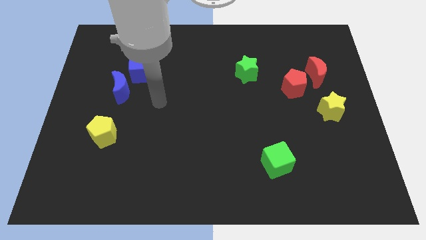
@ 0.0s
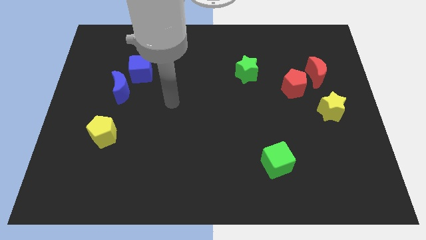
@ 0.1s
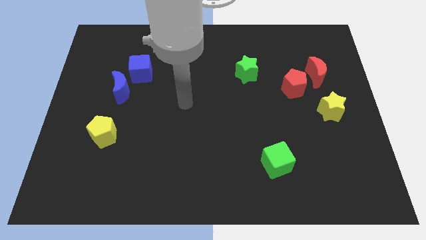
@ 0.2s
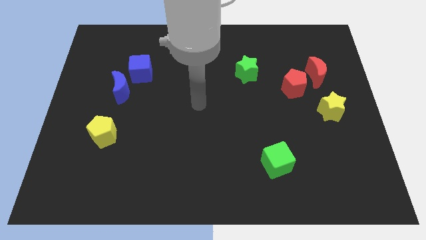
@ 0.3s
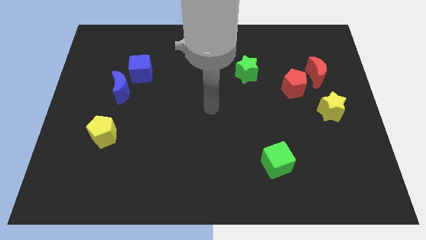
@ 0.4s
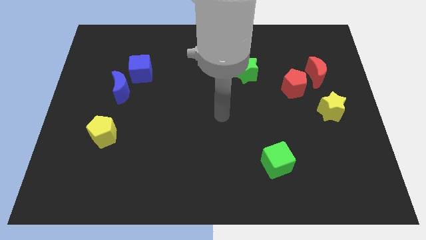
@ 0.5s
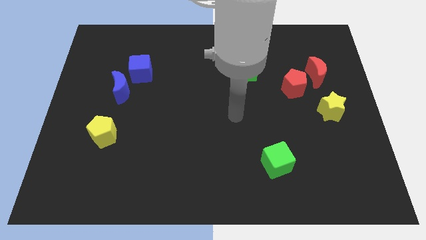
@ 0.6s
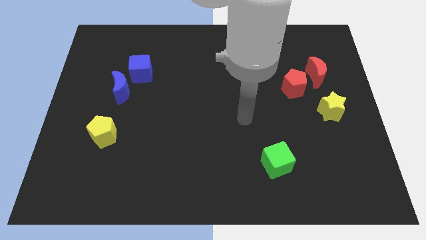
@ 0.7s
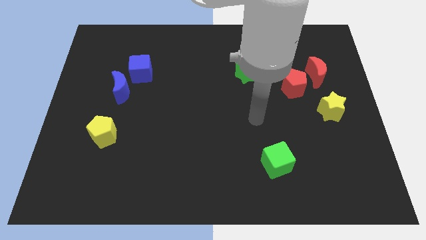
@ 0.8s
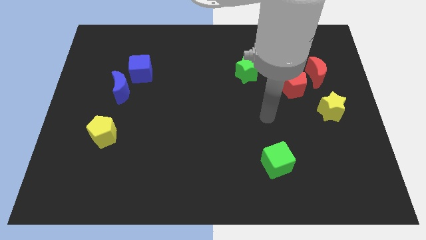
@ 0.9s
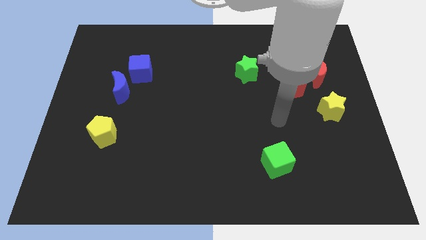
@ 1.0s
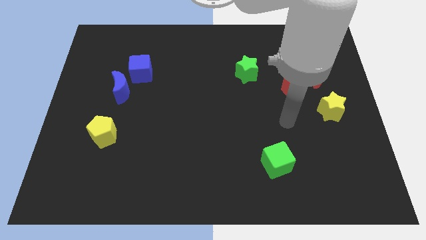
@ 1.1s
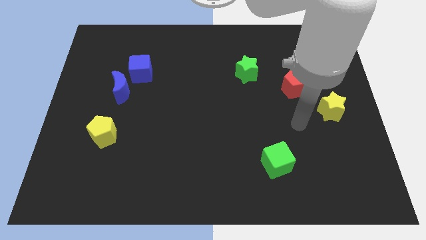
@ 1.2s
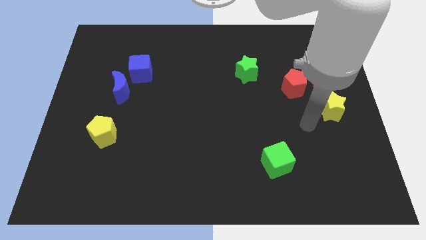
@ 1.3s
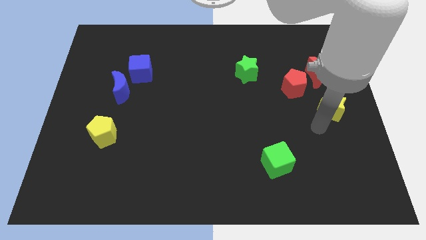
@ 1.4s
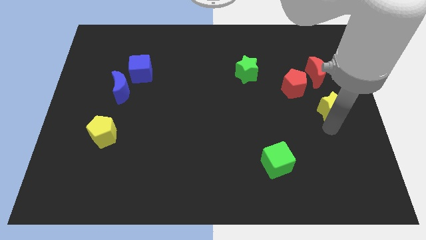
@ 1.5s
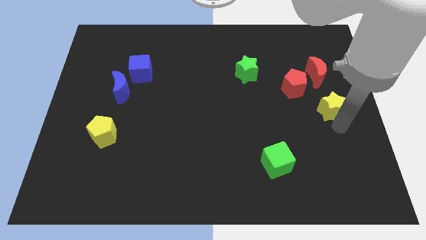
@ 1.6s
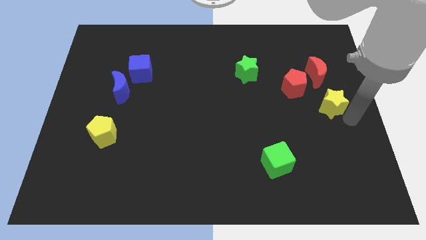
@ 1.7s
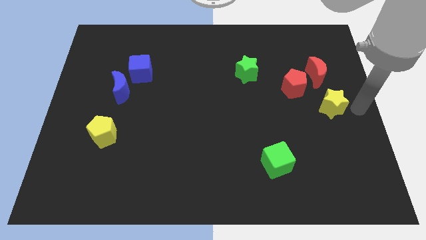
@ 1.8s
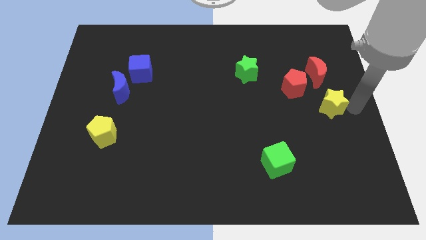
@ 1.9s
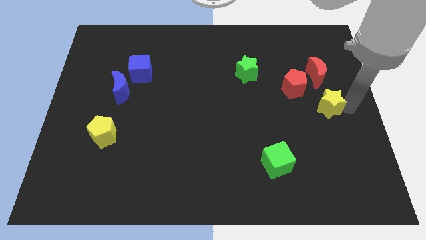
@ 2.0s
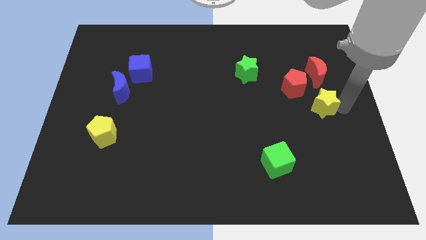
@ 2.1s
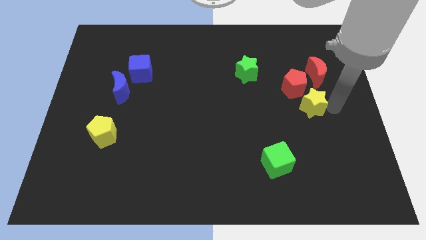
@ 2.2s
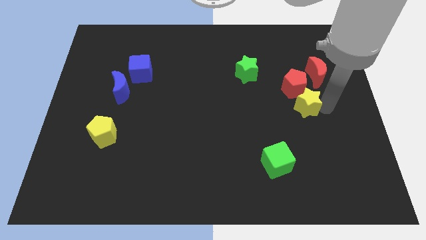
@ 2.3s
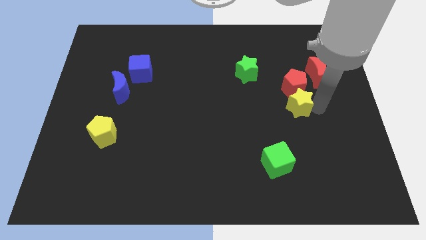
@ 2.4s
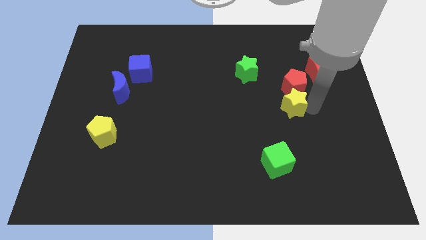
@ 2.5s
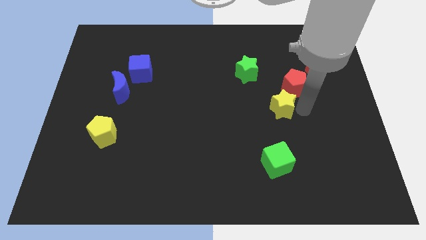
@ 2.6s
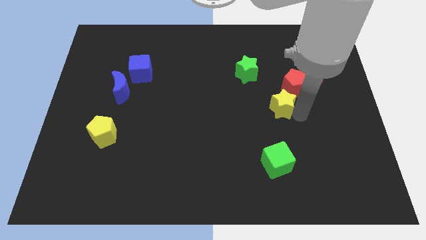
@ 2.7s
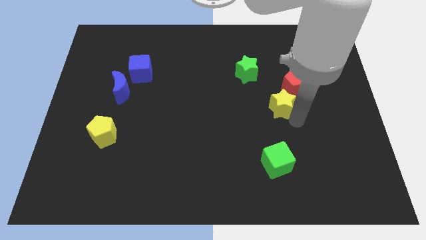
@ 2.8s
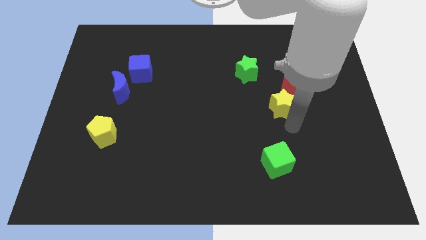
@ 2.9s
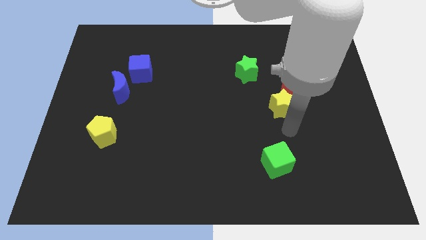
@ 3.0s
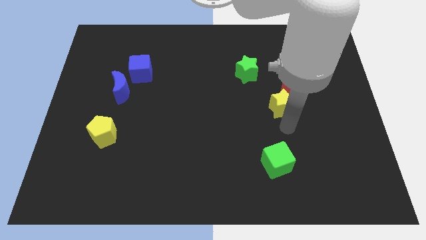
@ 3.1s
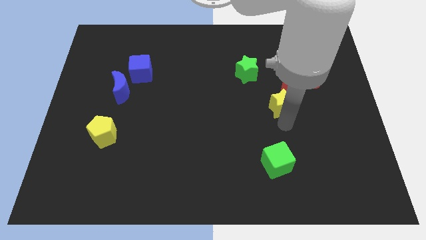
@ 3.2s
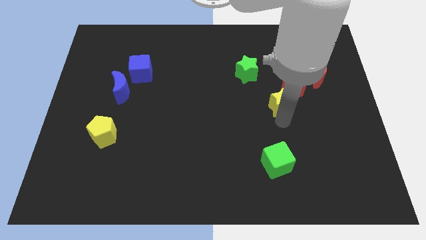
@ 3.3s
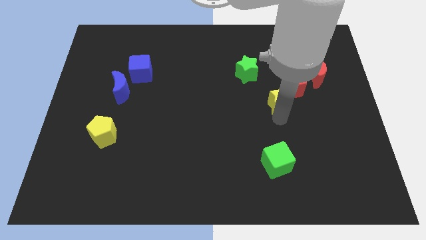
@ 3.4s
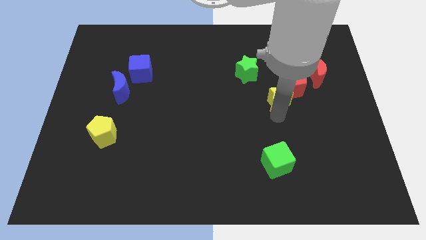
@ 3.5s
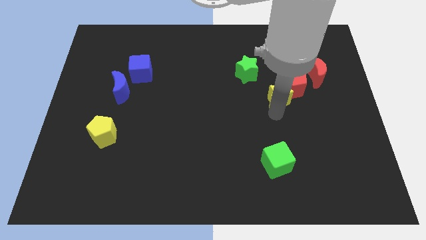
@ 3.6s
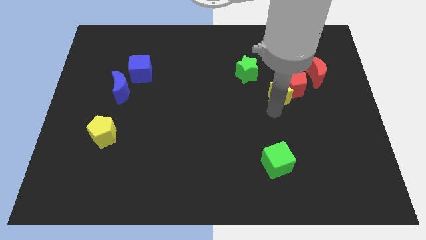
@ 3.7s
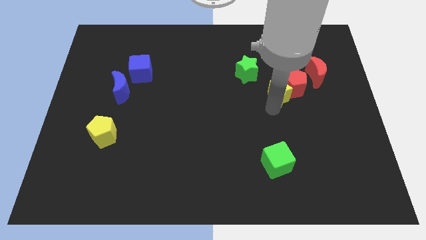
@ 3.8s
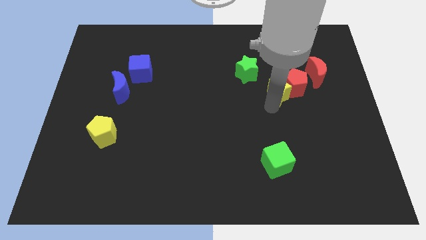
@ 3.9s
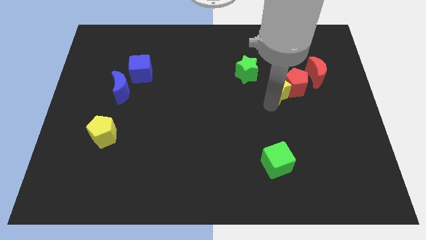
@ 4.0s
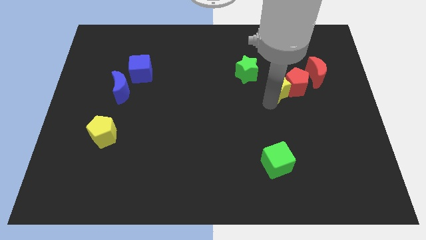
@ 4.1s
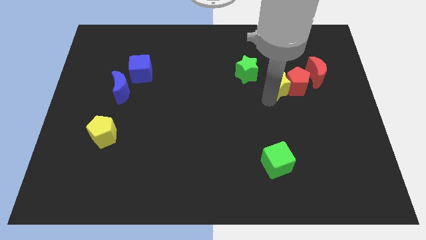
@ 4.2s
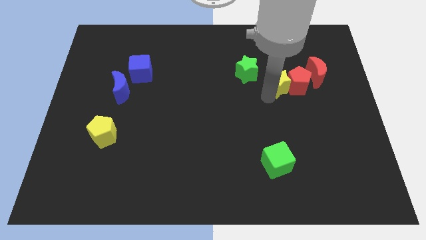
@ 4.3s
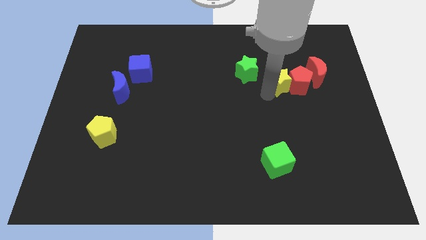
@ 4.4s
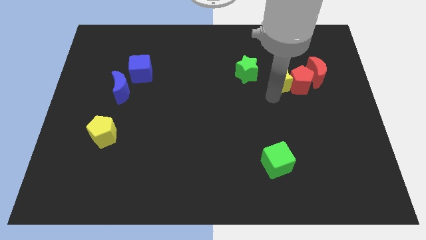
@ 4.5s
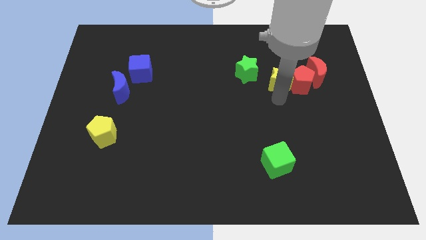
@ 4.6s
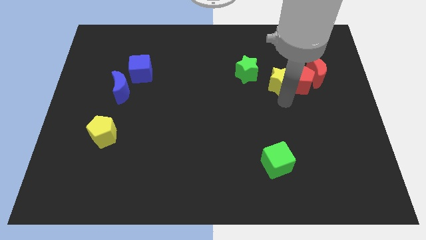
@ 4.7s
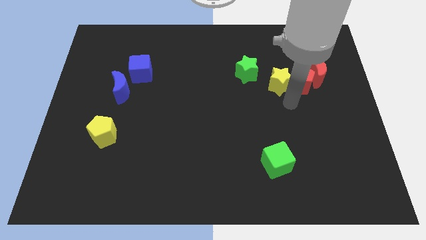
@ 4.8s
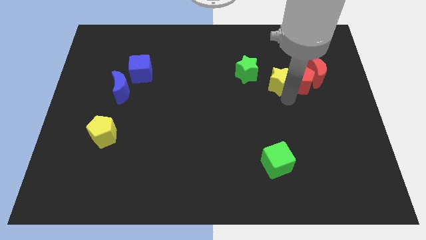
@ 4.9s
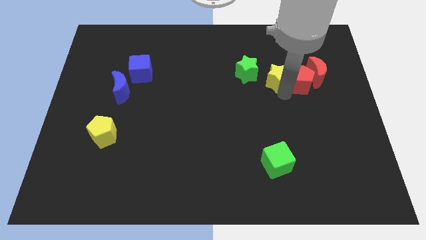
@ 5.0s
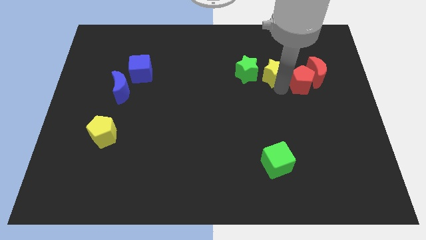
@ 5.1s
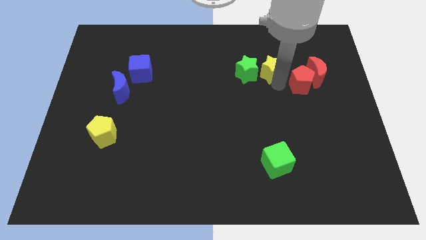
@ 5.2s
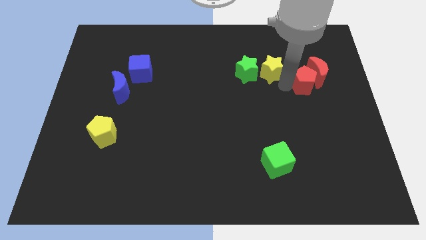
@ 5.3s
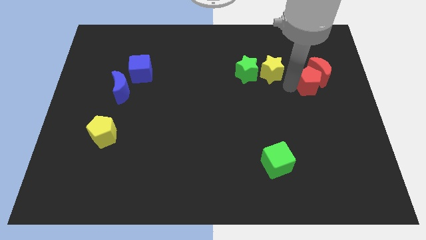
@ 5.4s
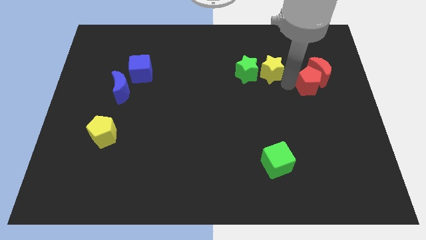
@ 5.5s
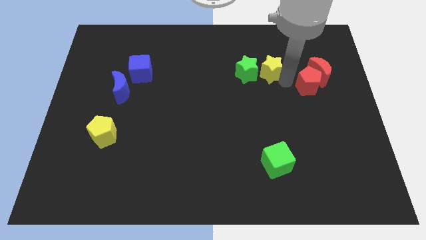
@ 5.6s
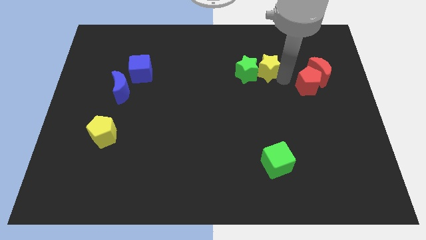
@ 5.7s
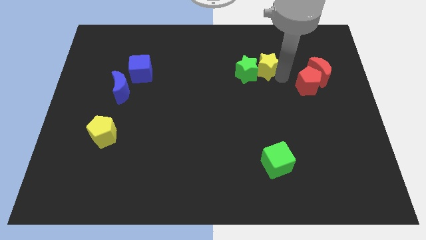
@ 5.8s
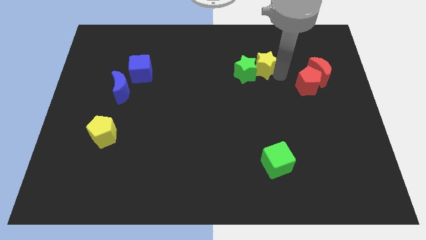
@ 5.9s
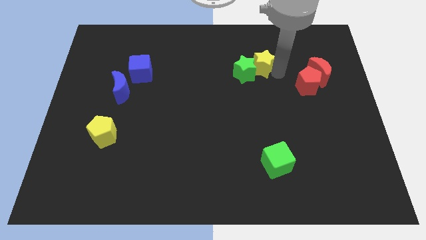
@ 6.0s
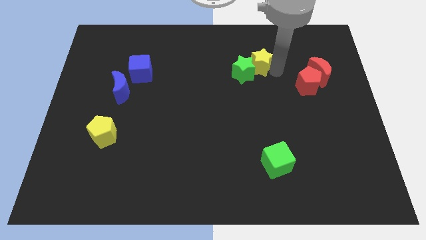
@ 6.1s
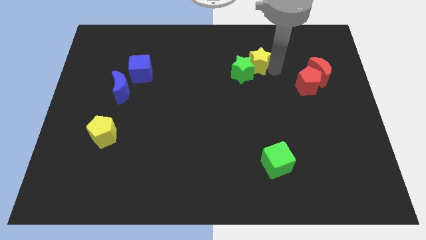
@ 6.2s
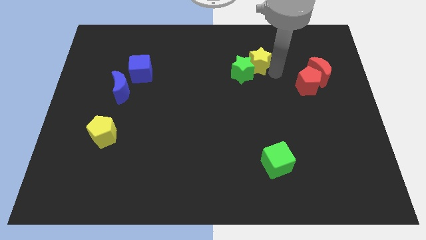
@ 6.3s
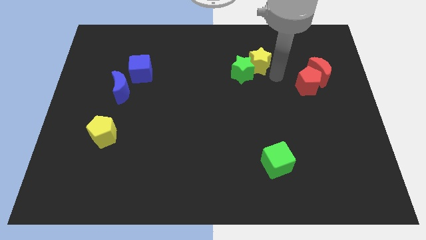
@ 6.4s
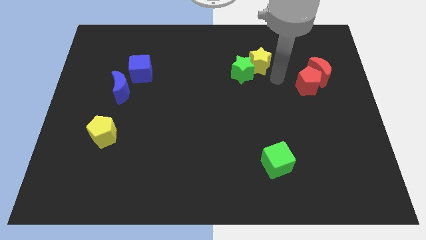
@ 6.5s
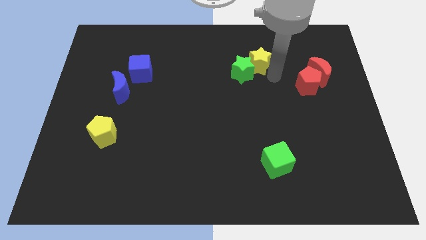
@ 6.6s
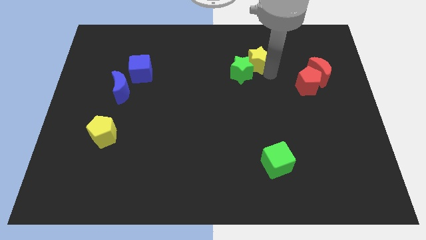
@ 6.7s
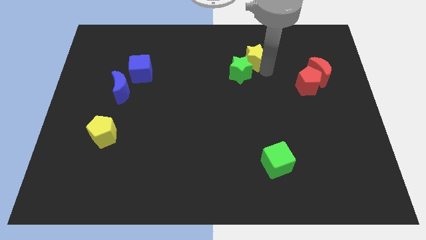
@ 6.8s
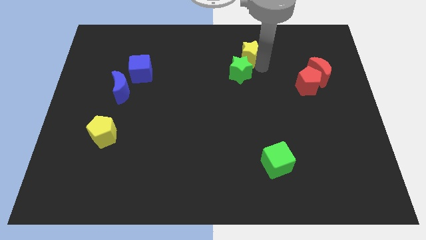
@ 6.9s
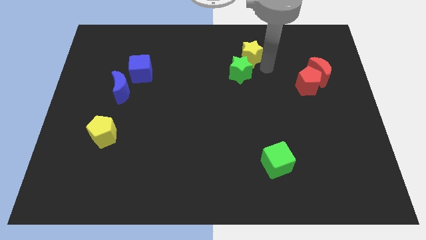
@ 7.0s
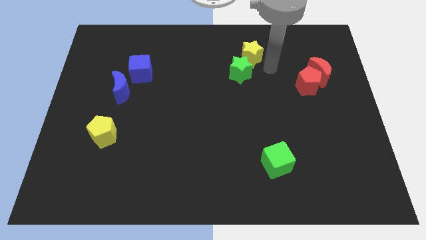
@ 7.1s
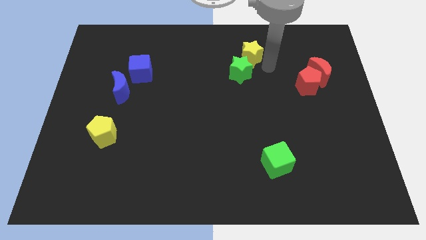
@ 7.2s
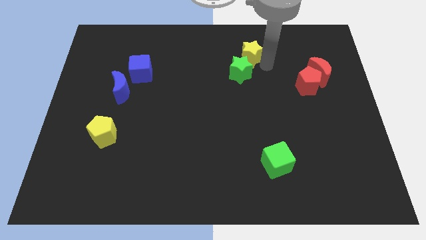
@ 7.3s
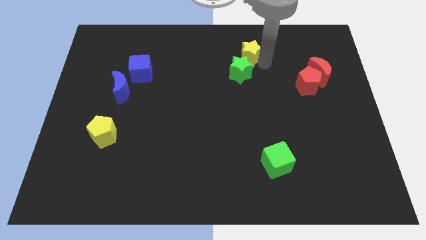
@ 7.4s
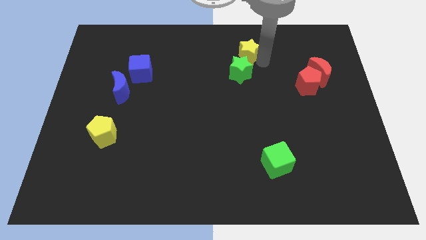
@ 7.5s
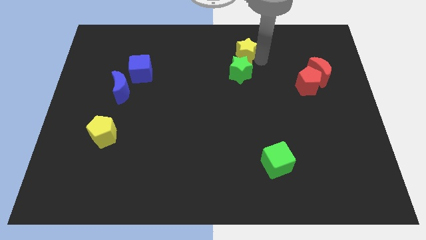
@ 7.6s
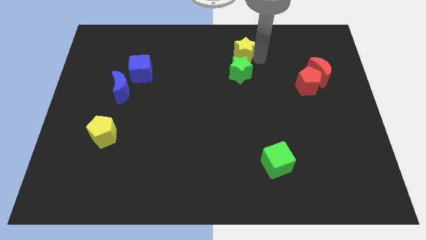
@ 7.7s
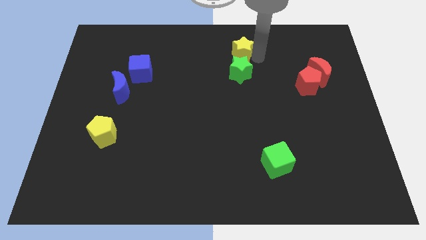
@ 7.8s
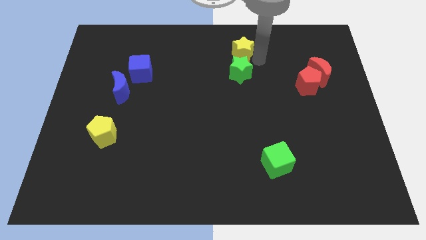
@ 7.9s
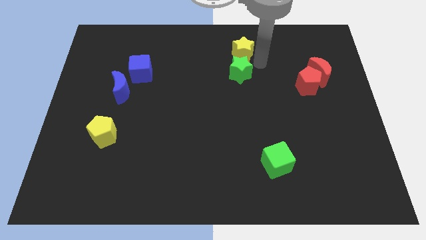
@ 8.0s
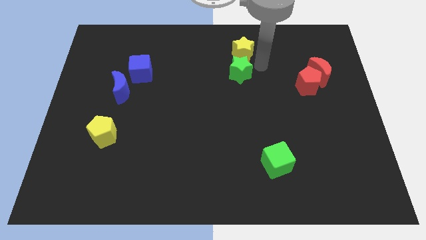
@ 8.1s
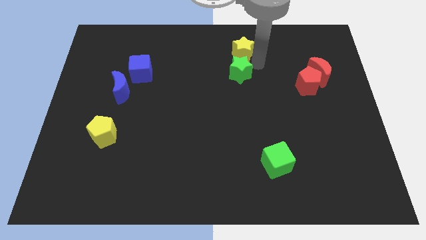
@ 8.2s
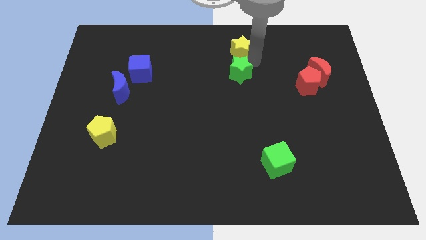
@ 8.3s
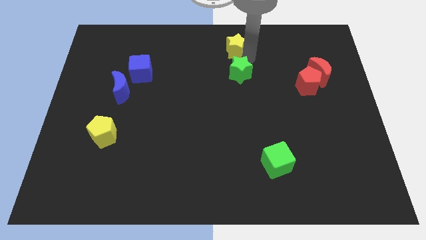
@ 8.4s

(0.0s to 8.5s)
put the yellow star to the top
